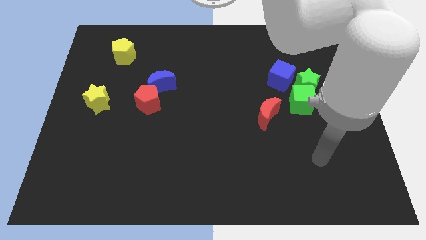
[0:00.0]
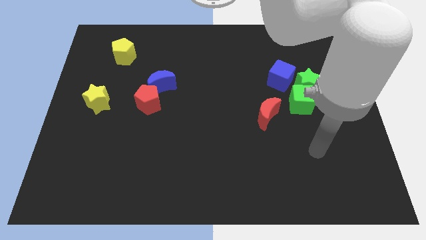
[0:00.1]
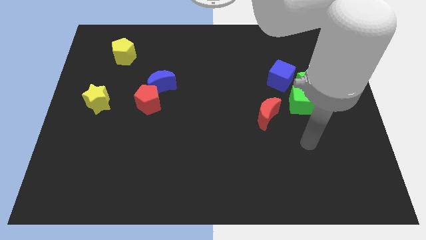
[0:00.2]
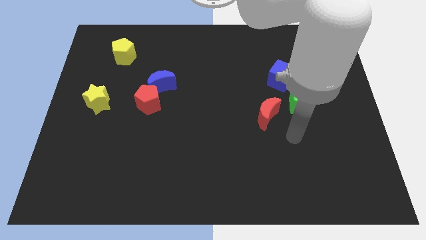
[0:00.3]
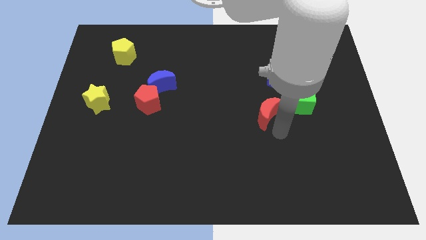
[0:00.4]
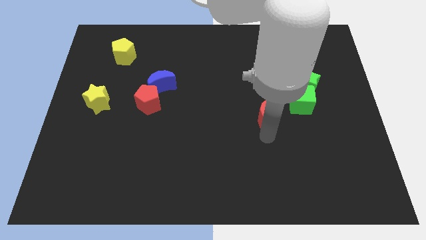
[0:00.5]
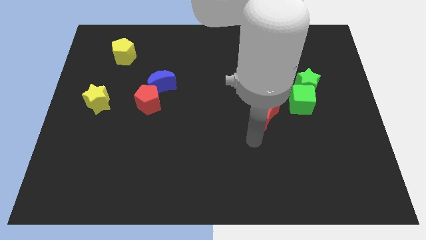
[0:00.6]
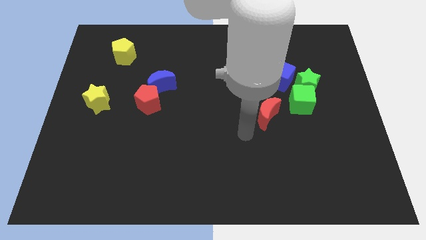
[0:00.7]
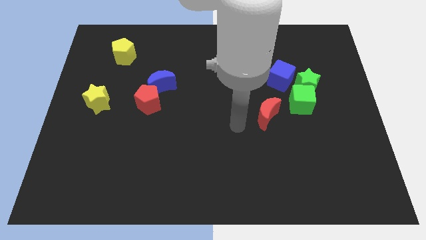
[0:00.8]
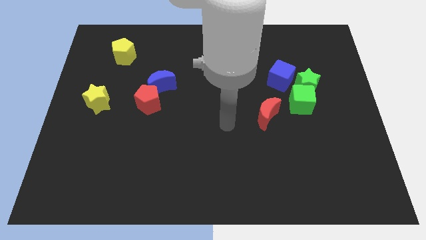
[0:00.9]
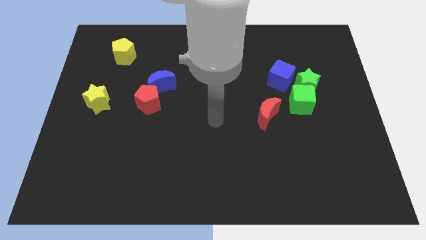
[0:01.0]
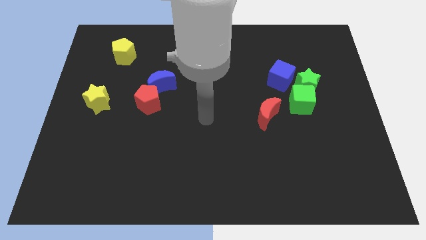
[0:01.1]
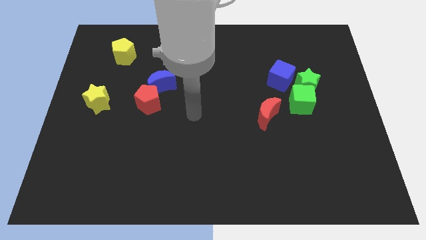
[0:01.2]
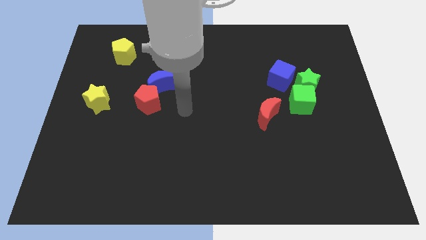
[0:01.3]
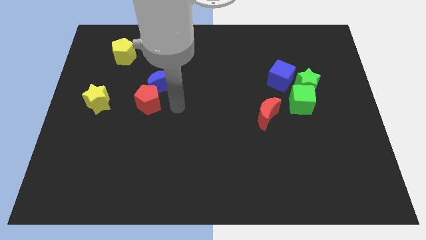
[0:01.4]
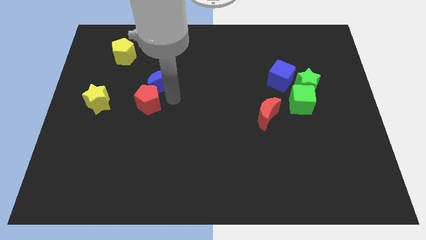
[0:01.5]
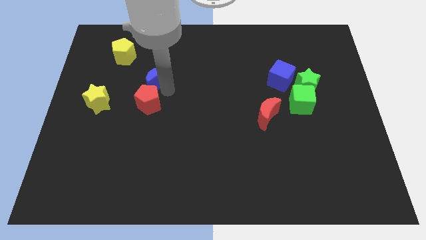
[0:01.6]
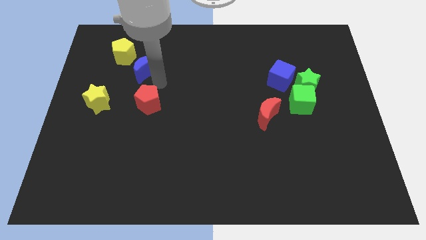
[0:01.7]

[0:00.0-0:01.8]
move the red pentagon away from the blue moon

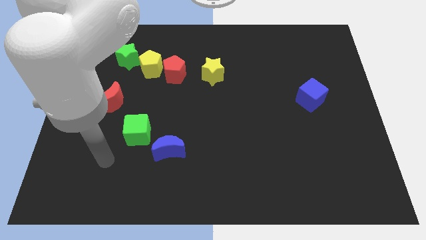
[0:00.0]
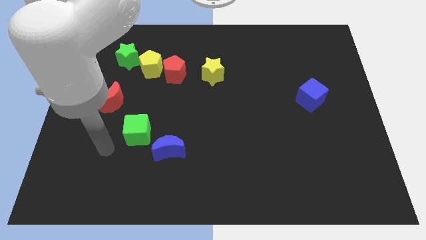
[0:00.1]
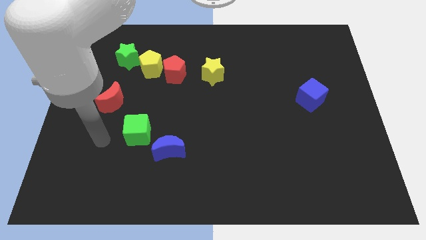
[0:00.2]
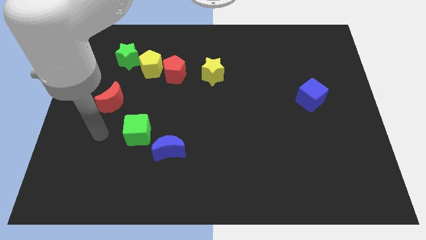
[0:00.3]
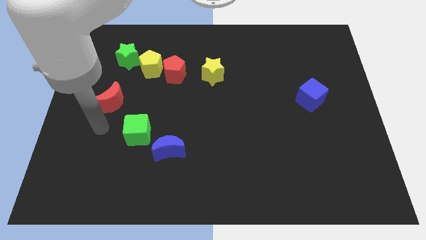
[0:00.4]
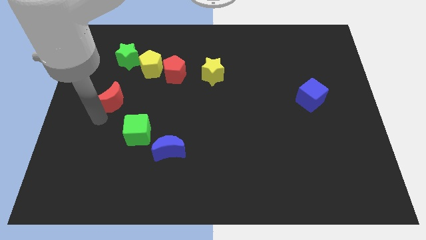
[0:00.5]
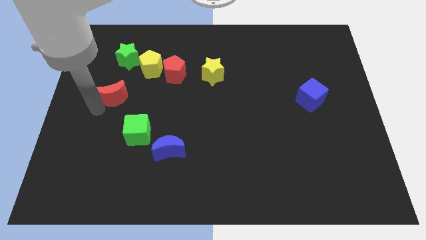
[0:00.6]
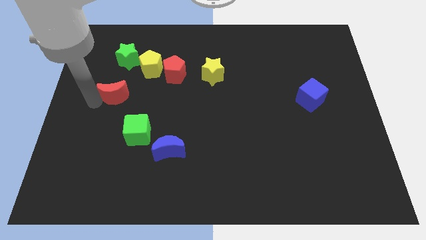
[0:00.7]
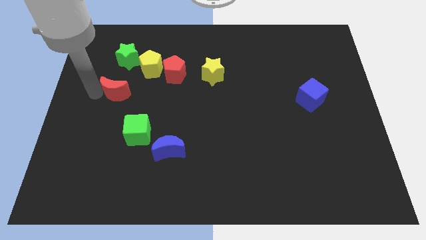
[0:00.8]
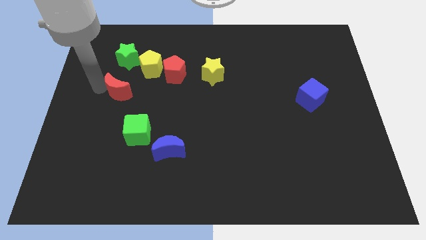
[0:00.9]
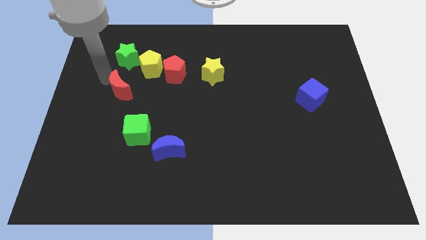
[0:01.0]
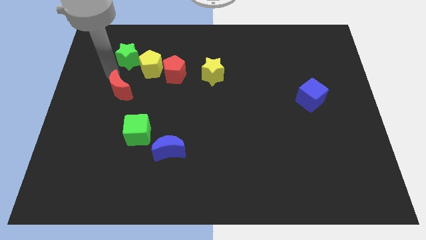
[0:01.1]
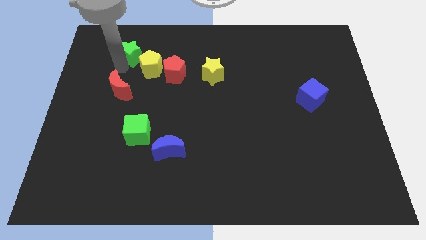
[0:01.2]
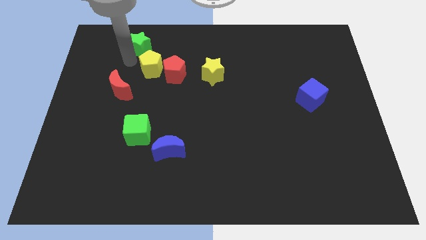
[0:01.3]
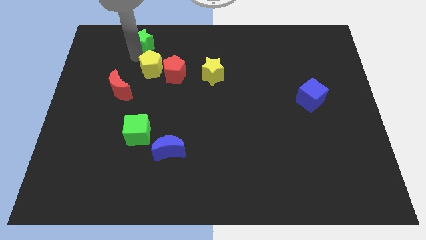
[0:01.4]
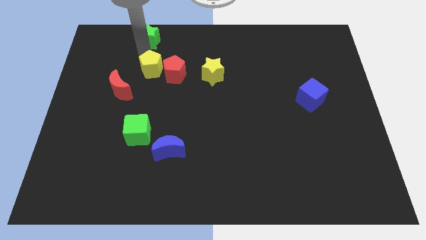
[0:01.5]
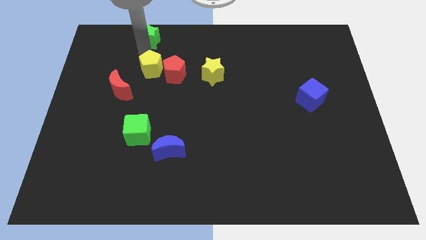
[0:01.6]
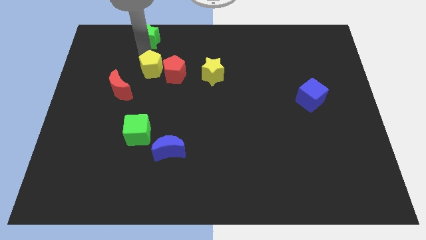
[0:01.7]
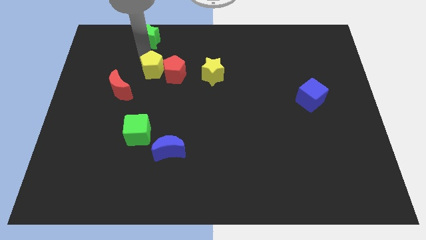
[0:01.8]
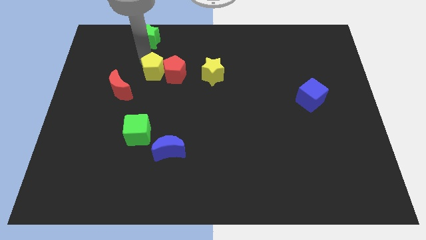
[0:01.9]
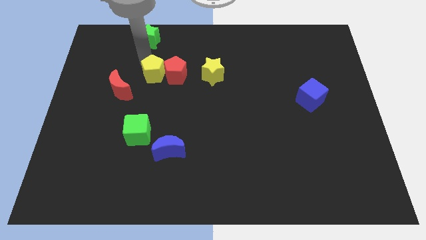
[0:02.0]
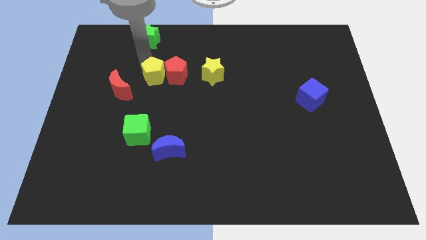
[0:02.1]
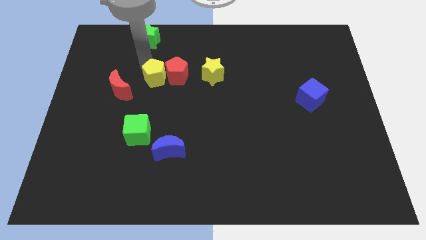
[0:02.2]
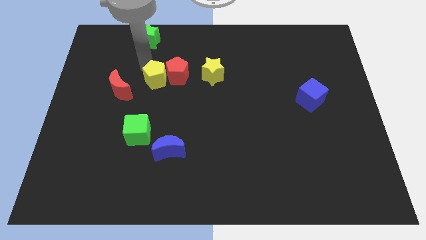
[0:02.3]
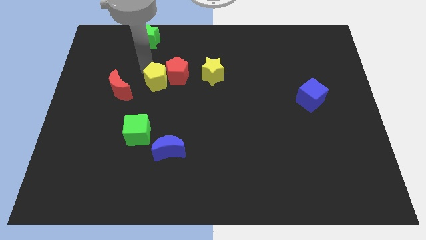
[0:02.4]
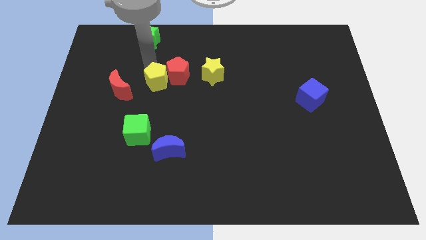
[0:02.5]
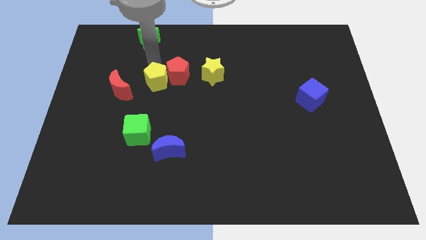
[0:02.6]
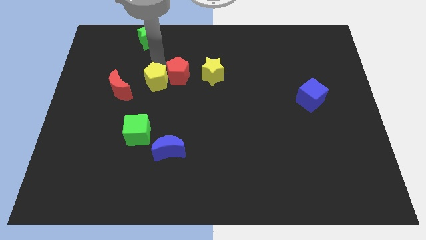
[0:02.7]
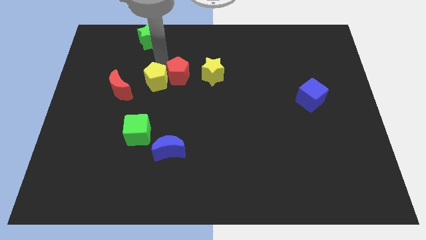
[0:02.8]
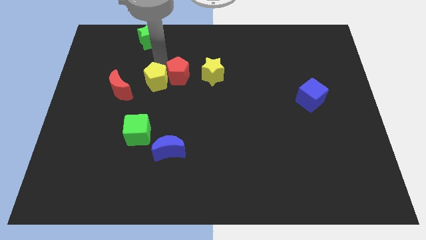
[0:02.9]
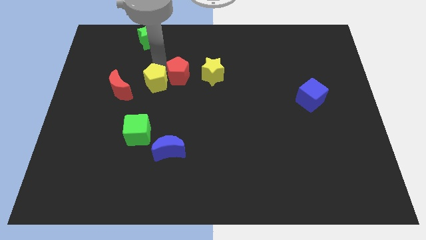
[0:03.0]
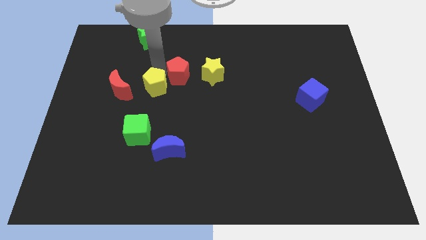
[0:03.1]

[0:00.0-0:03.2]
move the yellow pentagon away from the red pentagon and green star

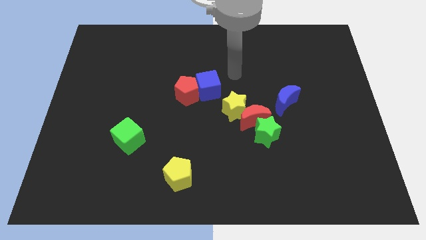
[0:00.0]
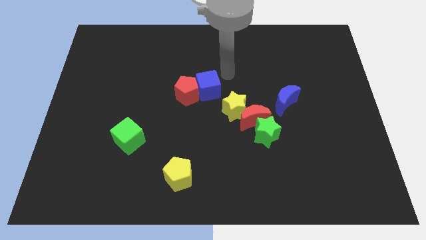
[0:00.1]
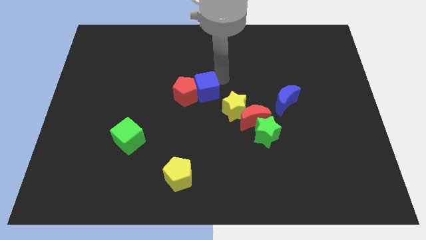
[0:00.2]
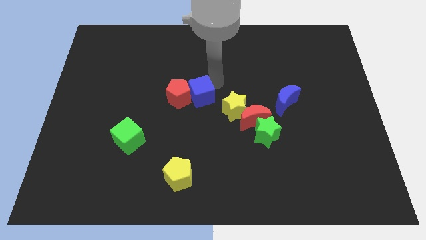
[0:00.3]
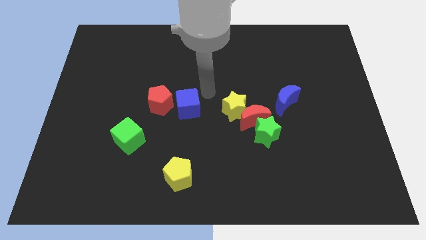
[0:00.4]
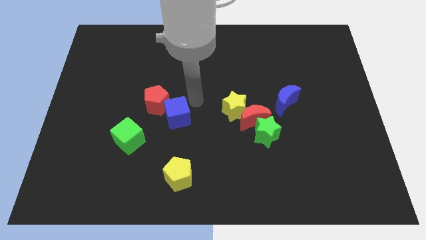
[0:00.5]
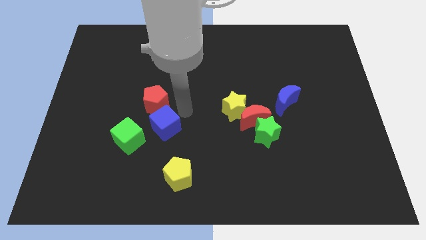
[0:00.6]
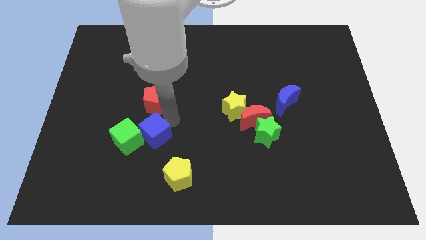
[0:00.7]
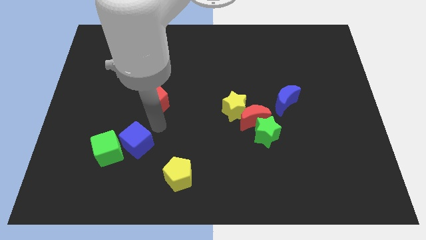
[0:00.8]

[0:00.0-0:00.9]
separate the red pentagon from the blue cube

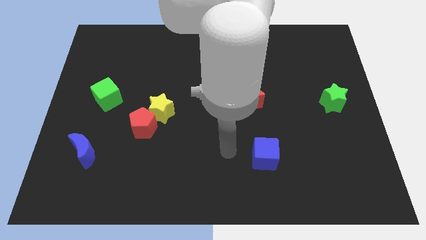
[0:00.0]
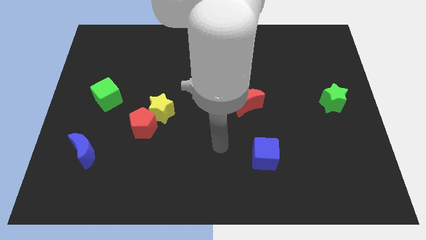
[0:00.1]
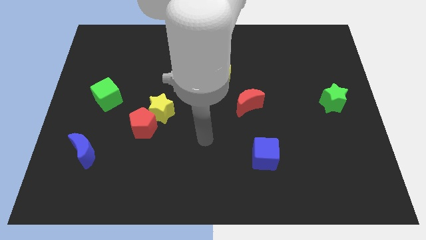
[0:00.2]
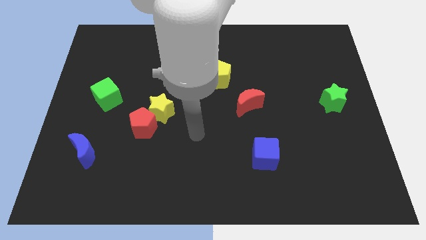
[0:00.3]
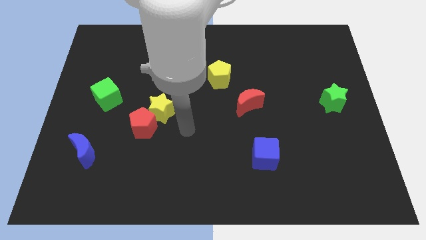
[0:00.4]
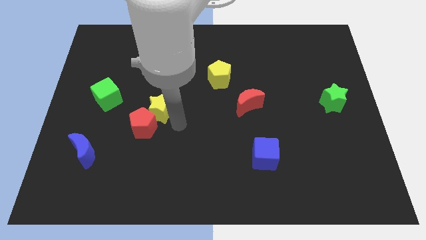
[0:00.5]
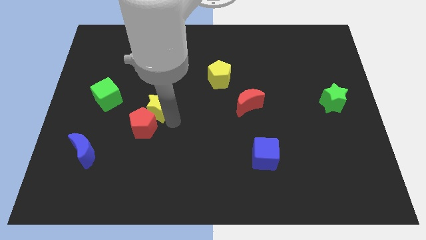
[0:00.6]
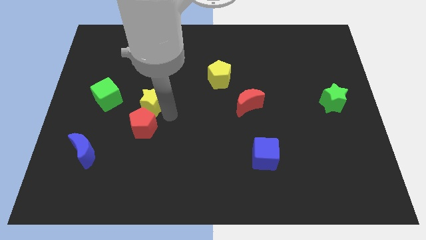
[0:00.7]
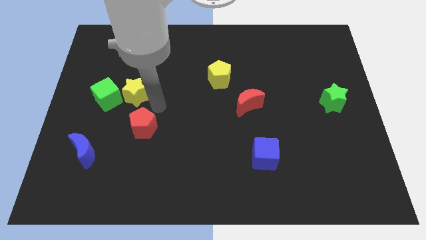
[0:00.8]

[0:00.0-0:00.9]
move the red pentagon away from the yellow star

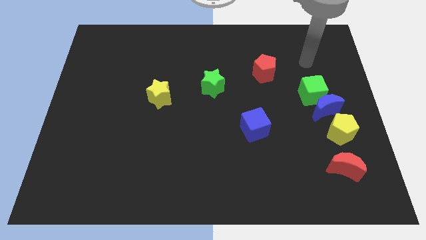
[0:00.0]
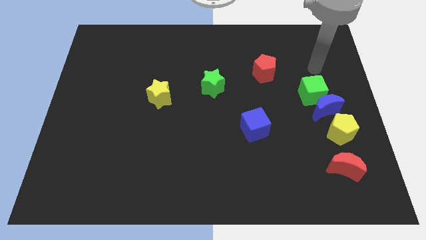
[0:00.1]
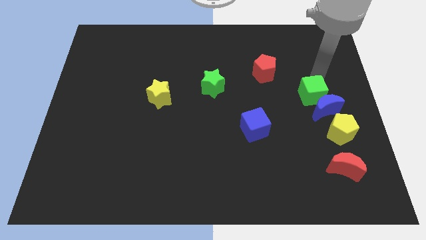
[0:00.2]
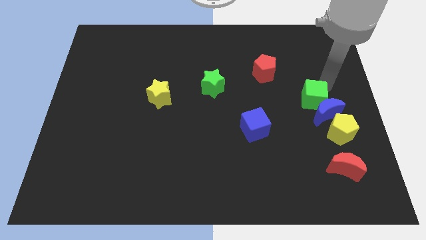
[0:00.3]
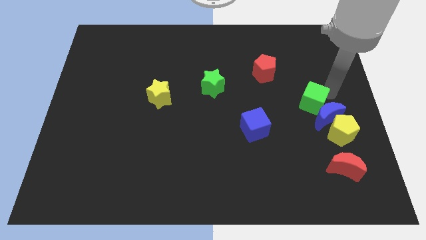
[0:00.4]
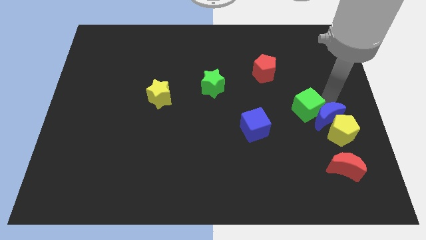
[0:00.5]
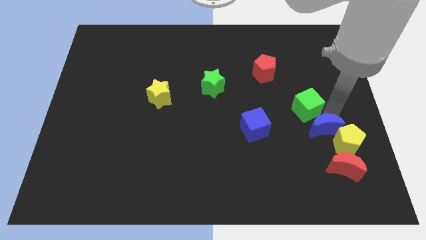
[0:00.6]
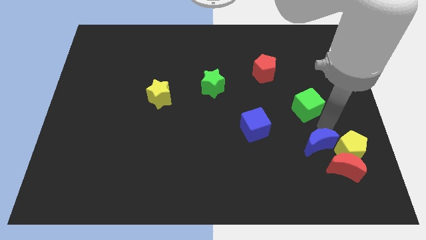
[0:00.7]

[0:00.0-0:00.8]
move the green cube away from the blue moon

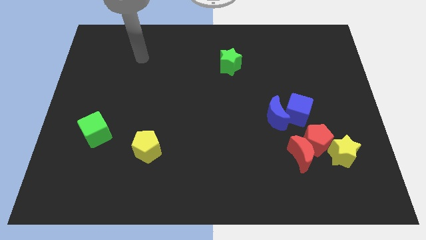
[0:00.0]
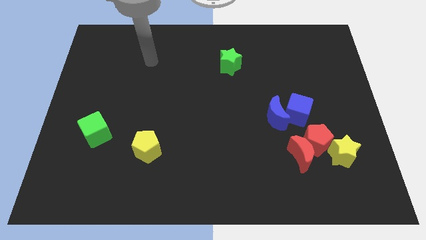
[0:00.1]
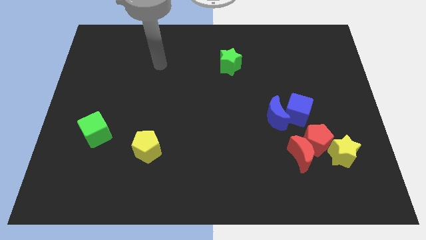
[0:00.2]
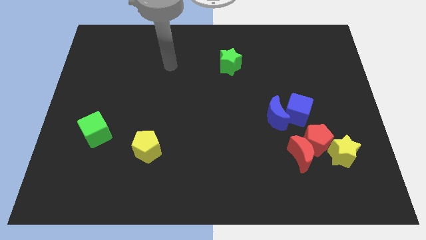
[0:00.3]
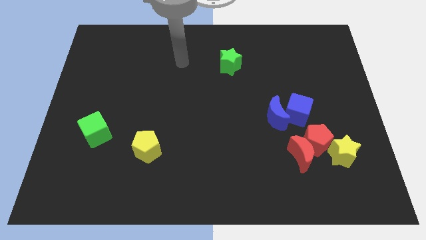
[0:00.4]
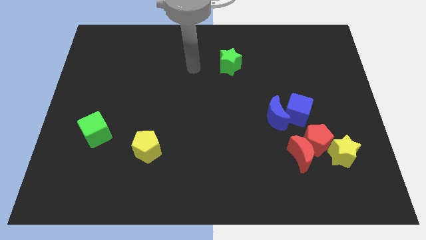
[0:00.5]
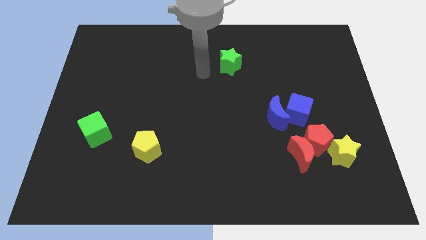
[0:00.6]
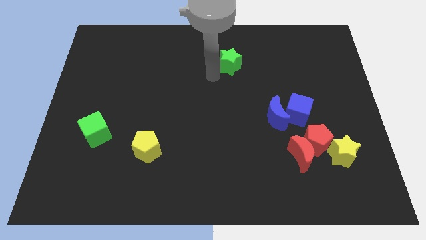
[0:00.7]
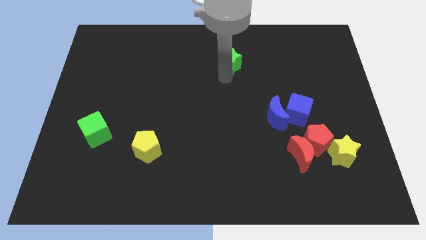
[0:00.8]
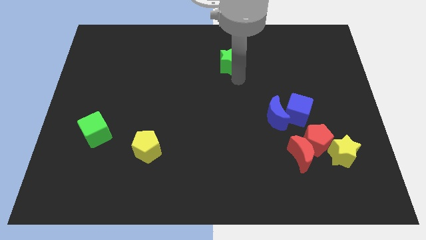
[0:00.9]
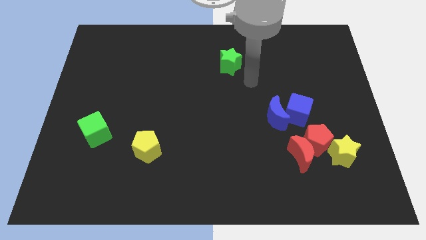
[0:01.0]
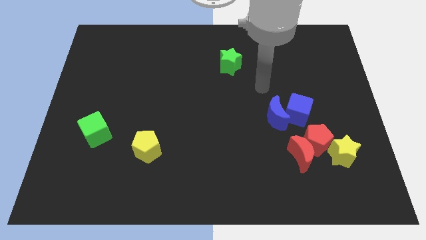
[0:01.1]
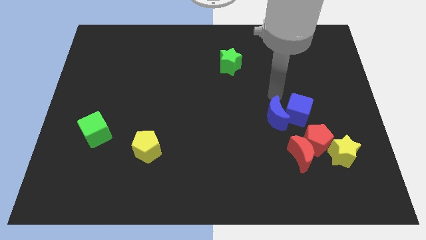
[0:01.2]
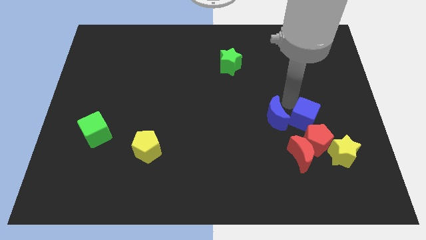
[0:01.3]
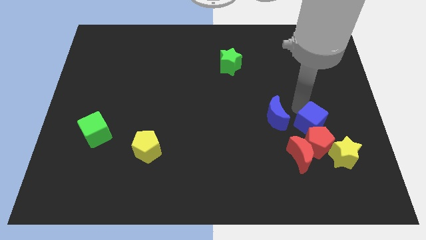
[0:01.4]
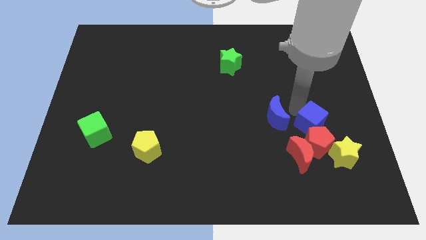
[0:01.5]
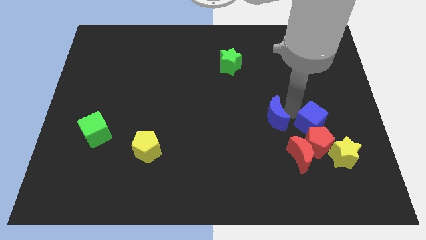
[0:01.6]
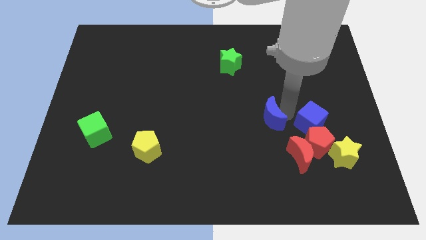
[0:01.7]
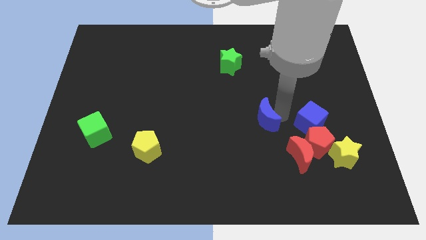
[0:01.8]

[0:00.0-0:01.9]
pull the blue moon apart from the blue cube
